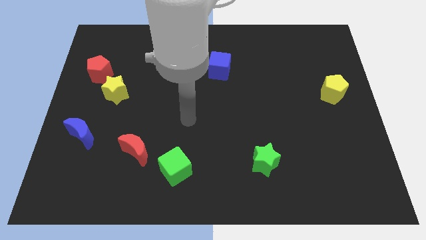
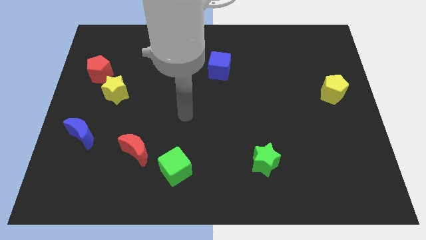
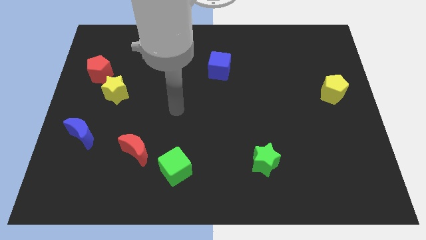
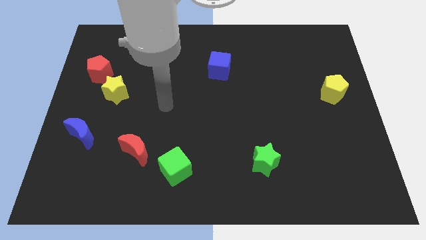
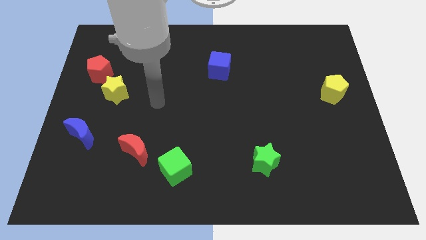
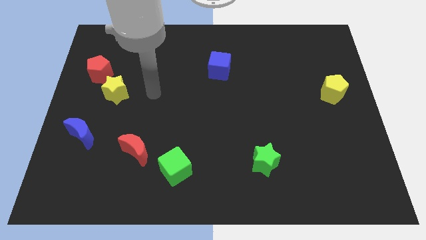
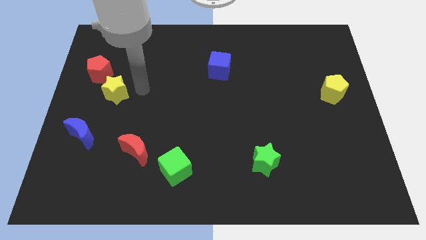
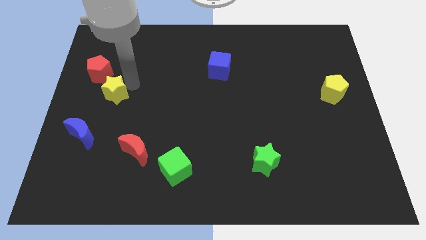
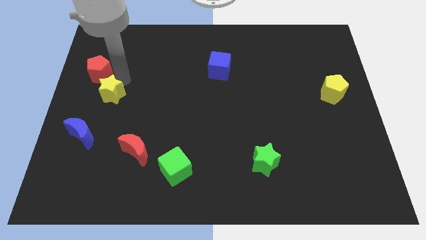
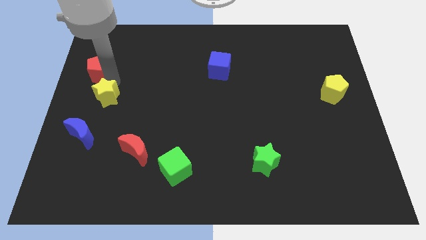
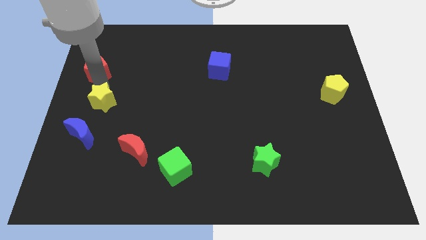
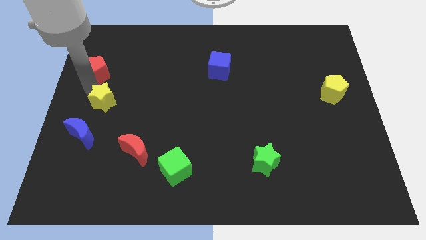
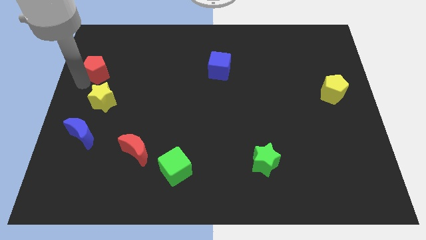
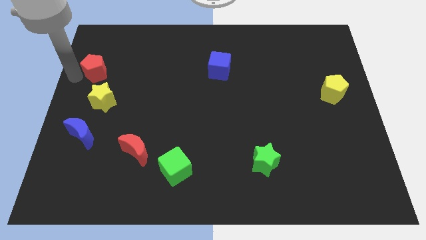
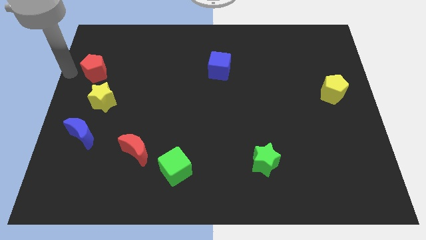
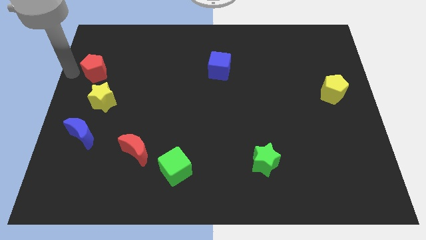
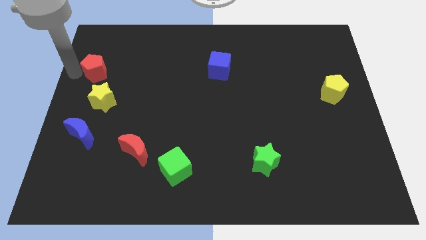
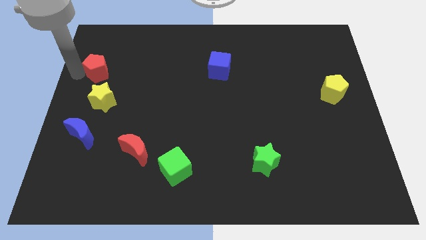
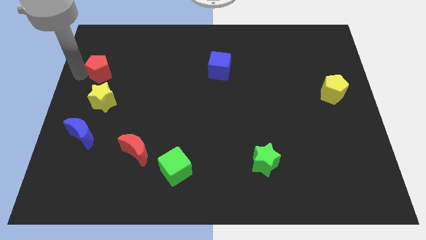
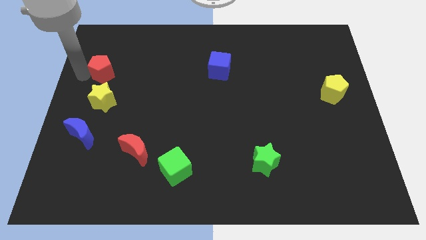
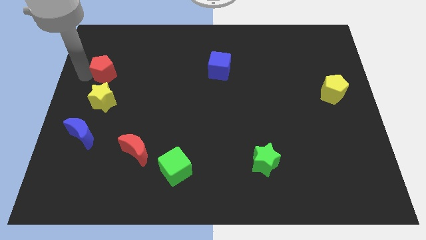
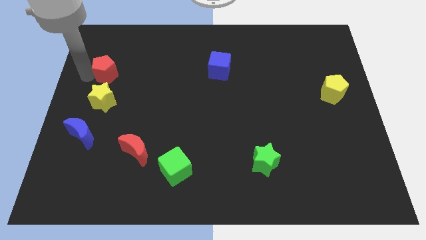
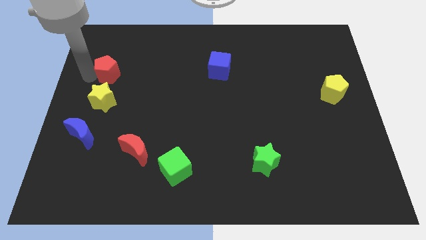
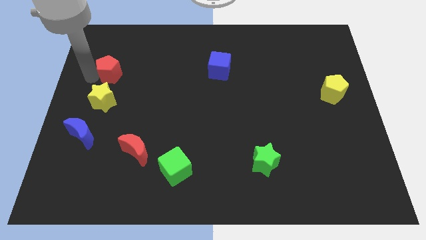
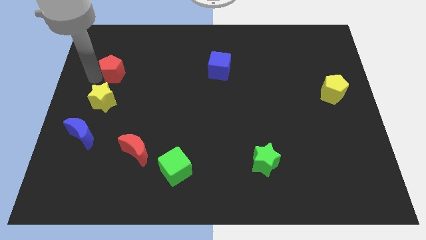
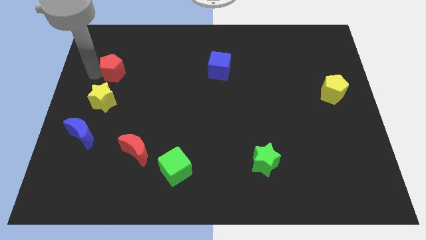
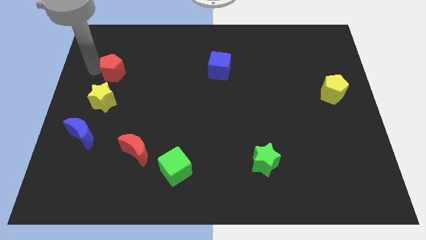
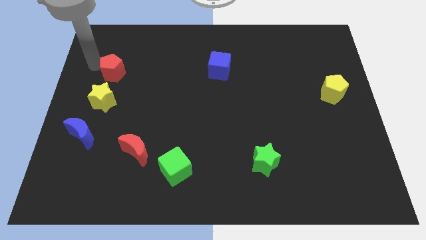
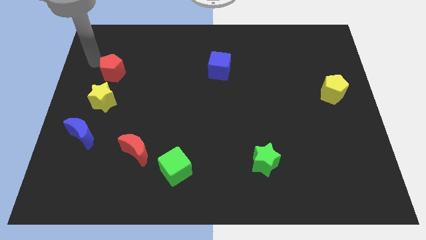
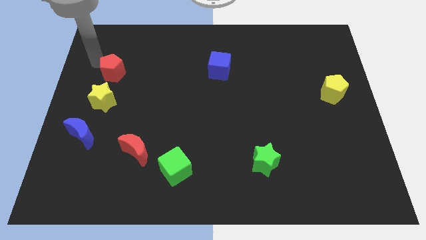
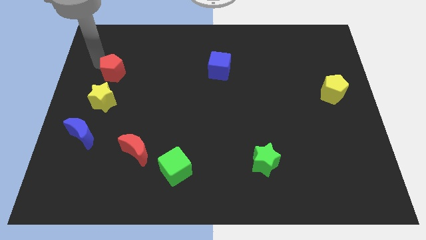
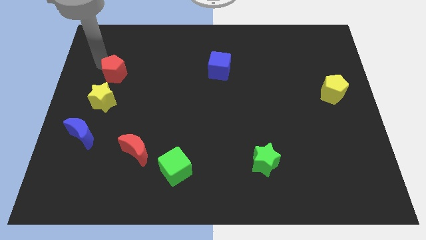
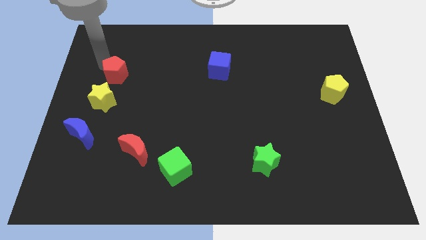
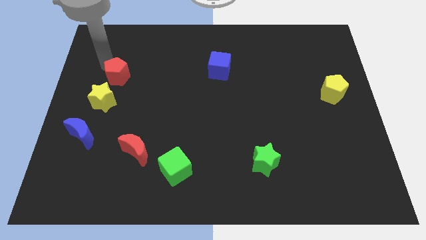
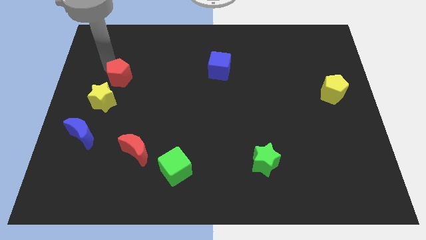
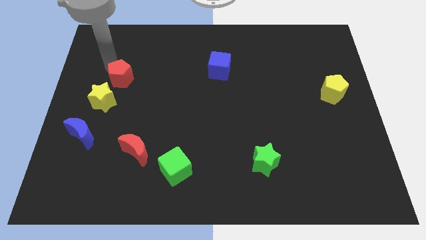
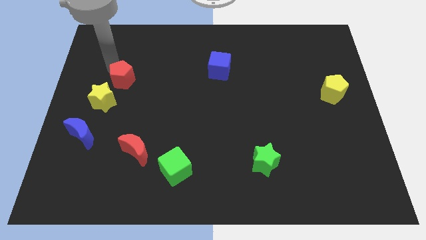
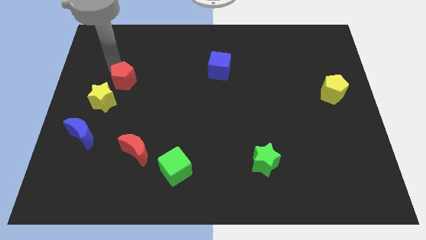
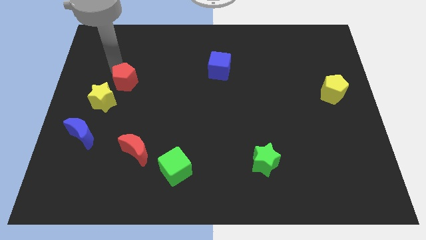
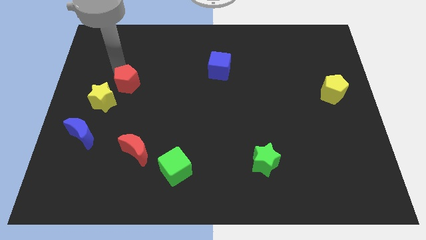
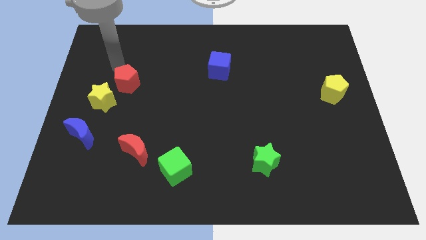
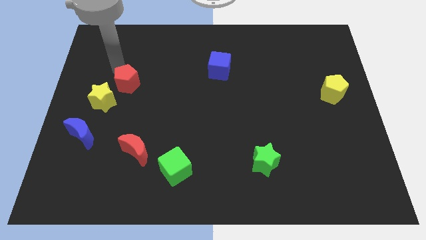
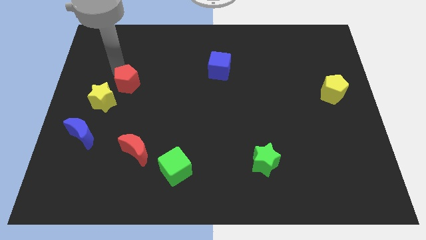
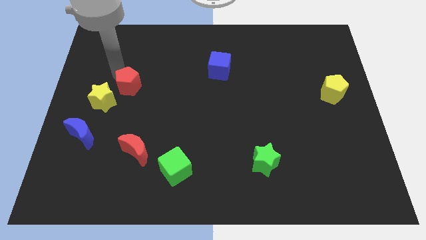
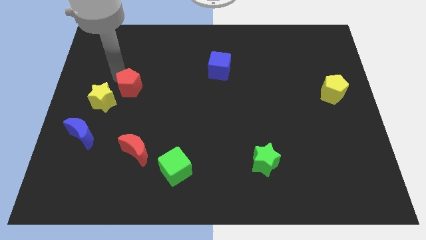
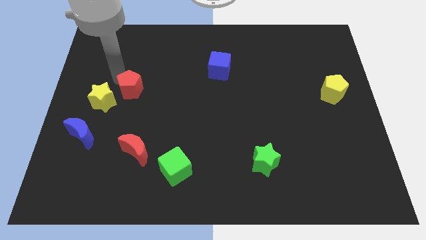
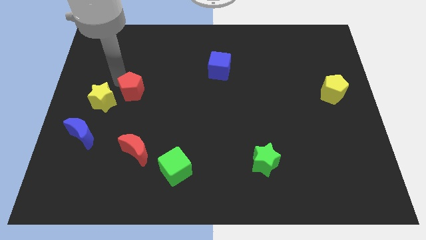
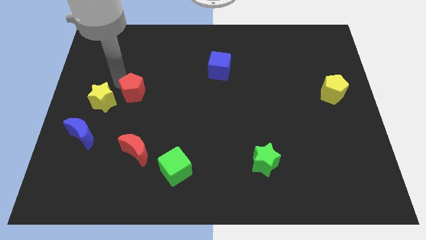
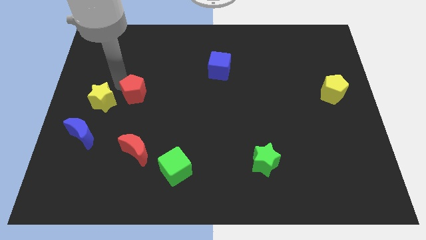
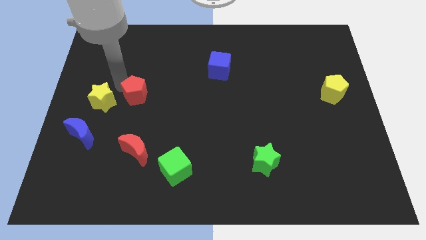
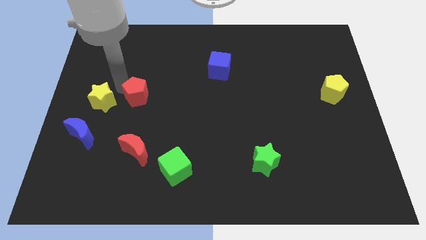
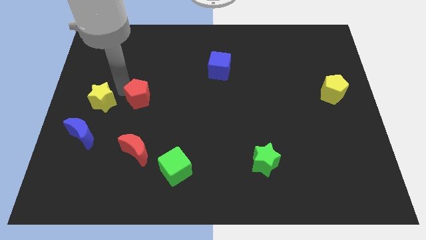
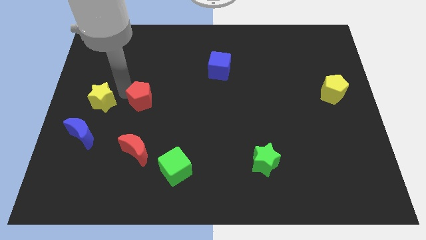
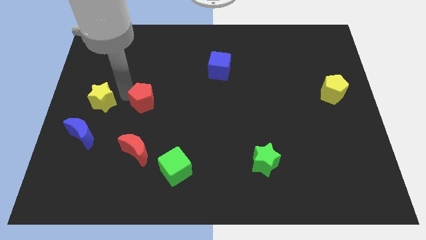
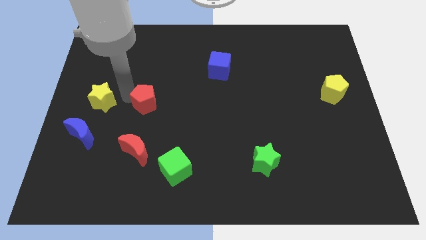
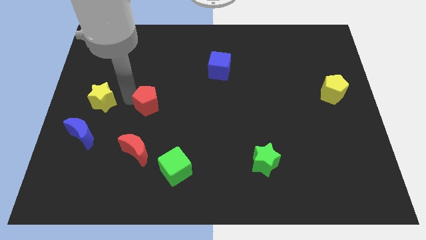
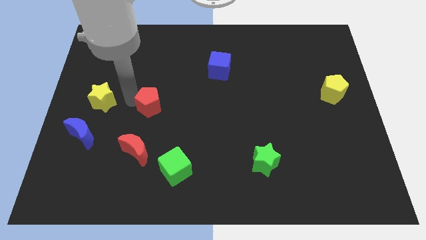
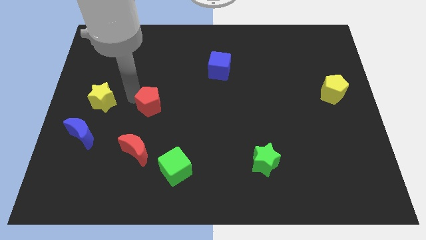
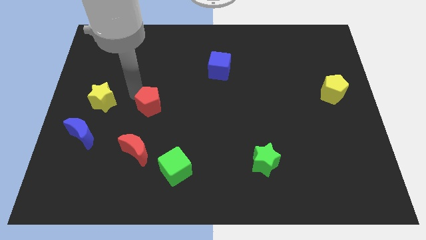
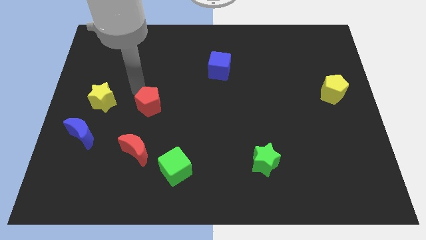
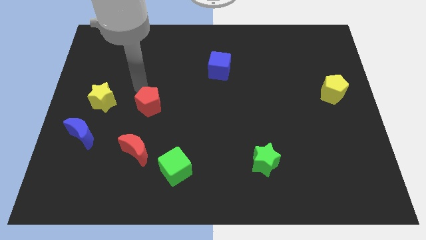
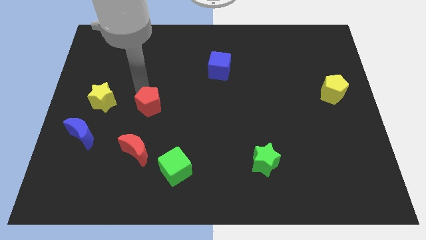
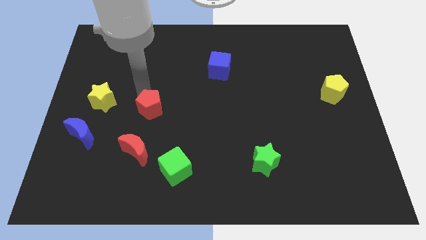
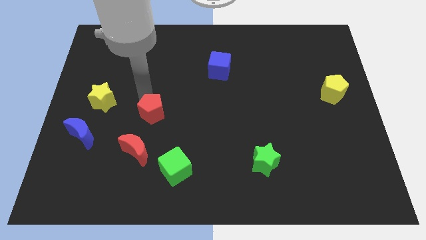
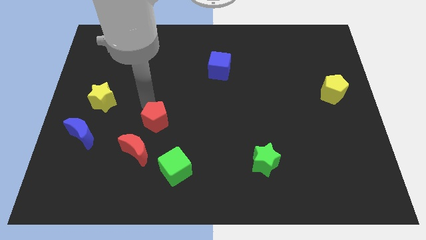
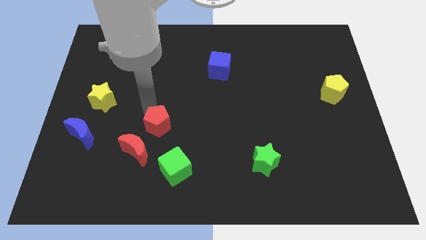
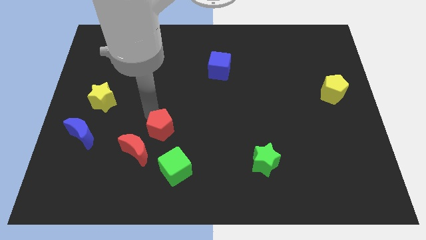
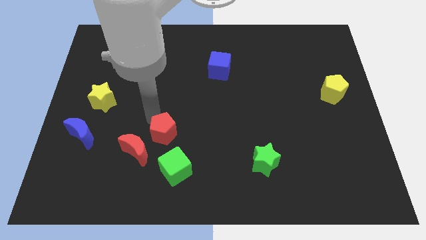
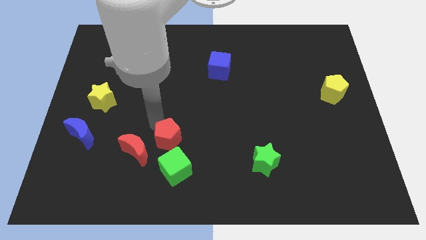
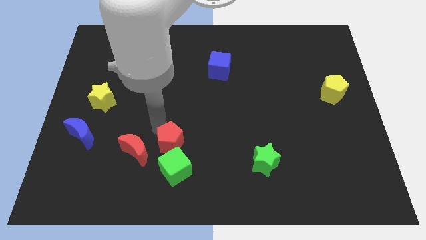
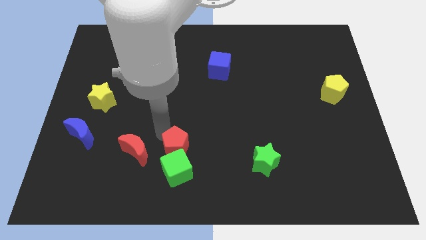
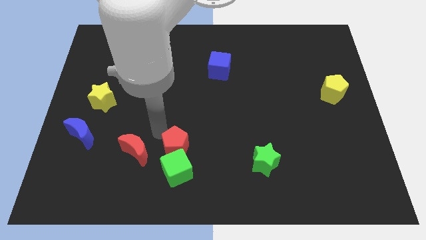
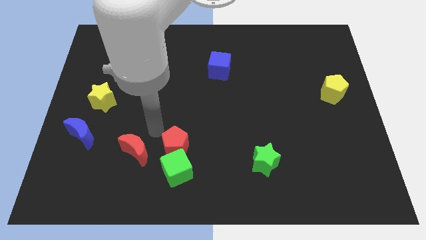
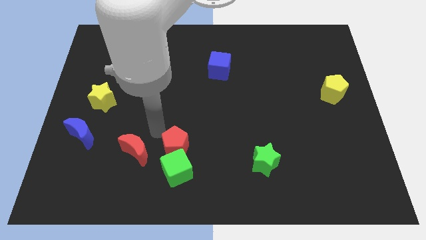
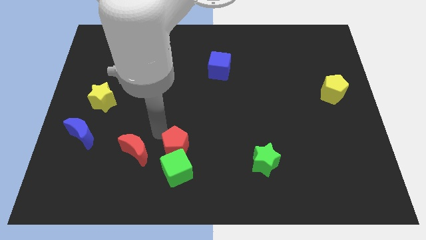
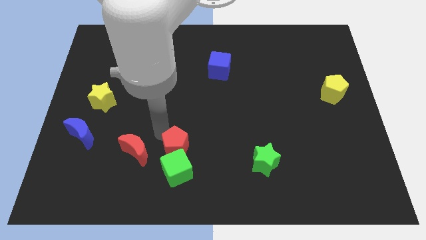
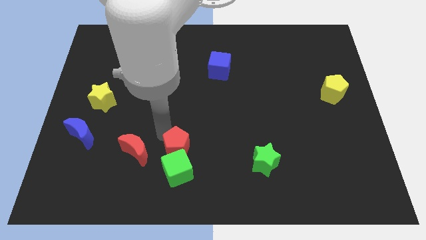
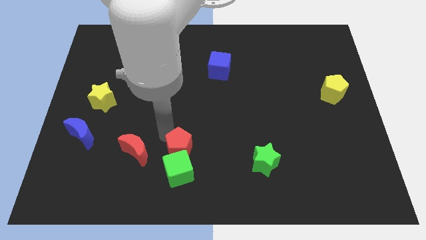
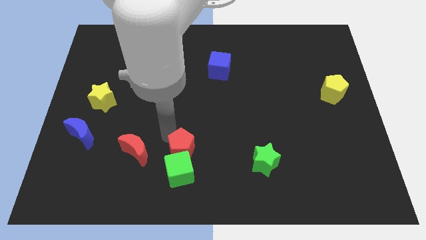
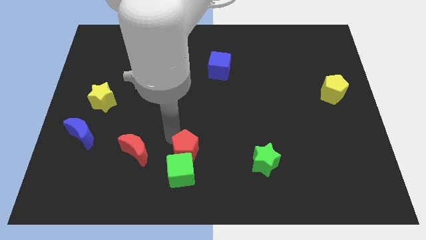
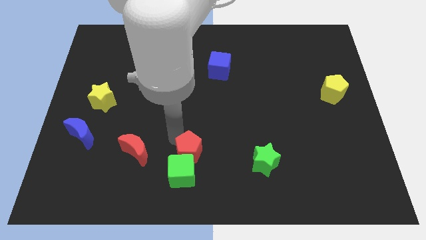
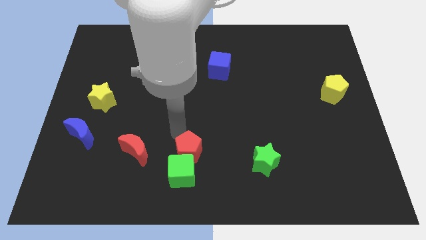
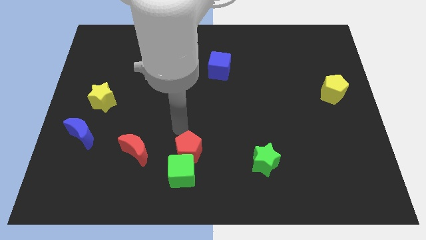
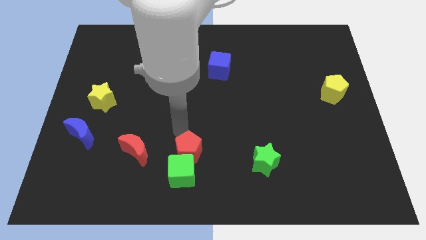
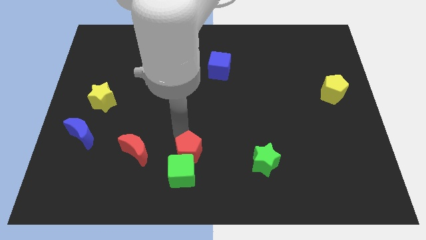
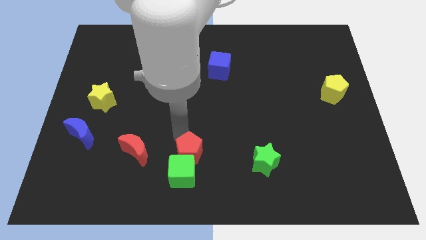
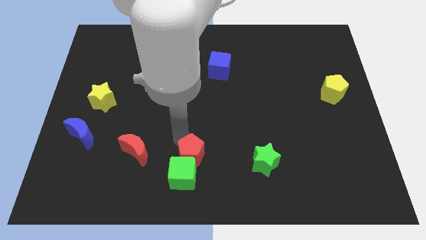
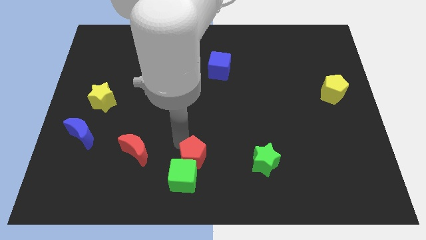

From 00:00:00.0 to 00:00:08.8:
move the red pentagon to the bottom side
